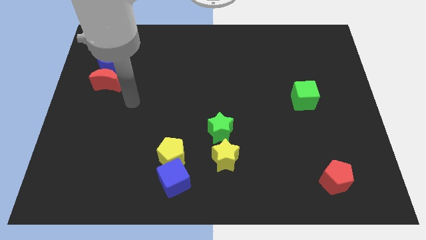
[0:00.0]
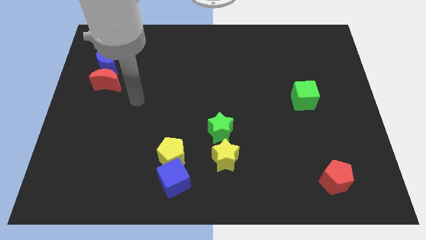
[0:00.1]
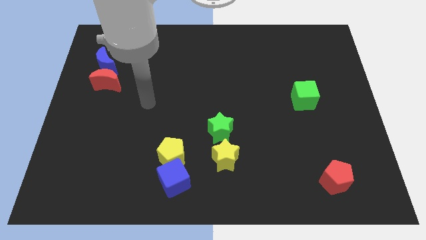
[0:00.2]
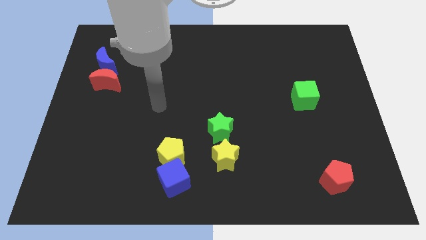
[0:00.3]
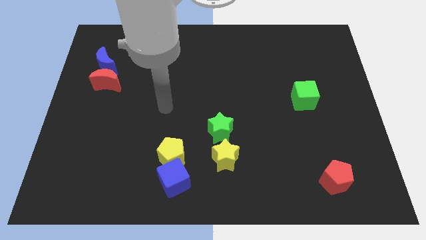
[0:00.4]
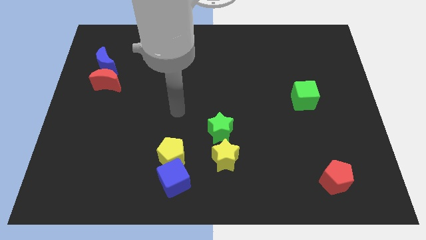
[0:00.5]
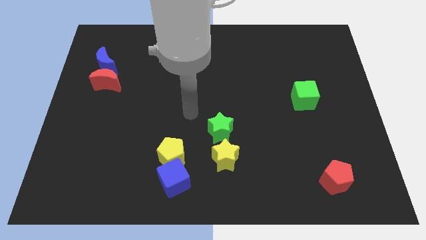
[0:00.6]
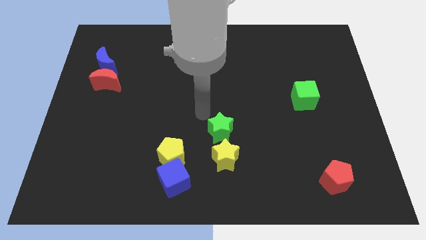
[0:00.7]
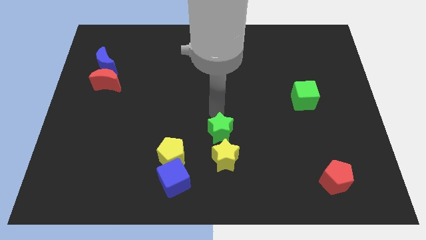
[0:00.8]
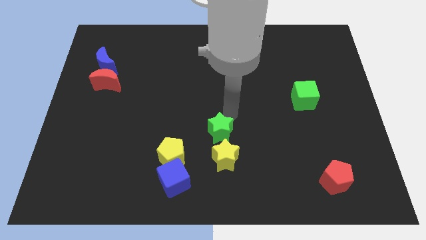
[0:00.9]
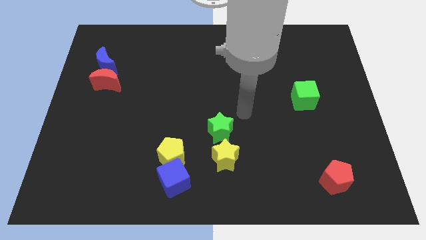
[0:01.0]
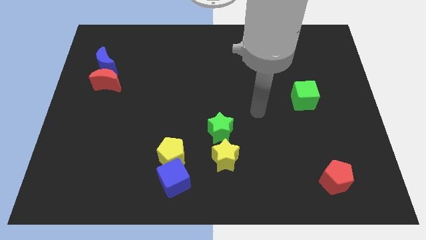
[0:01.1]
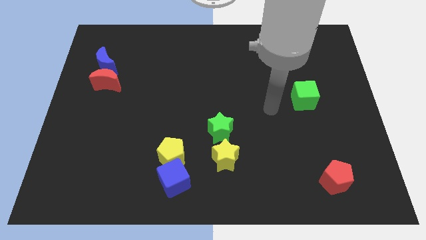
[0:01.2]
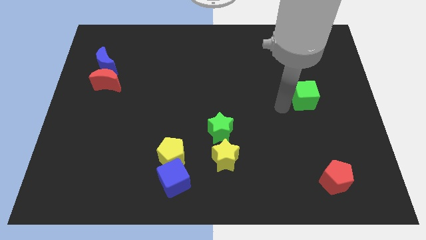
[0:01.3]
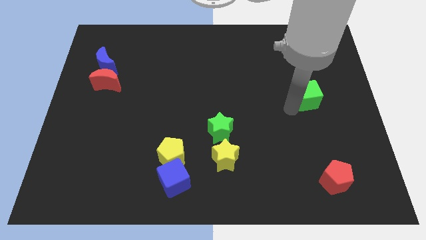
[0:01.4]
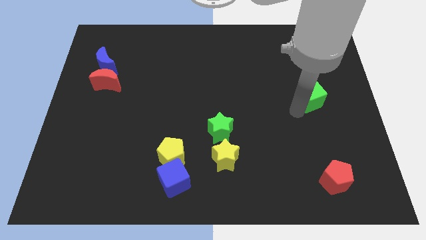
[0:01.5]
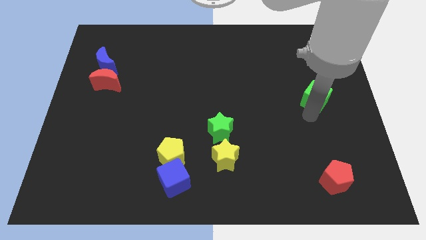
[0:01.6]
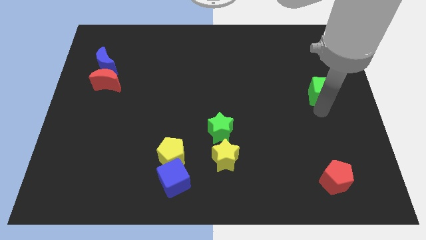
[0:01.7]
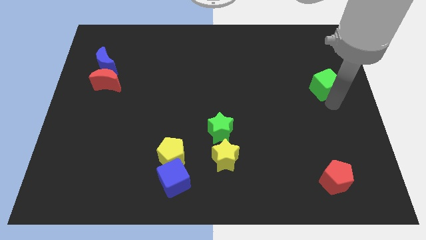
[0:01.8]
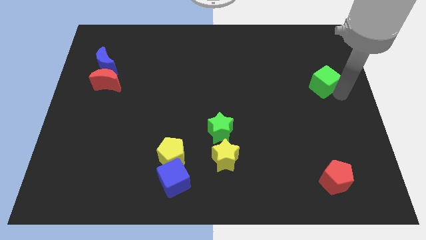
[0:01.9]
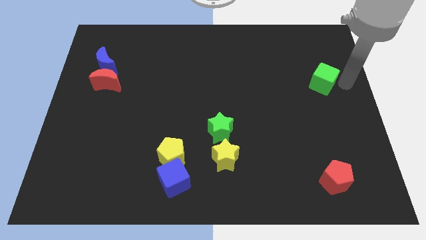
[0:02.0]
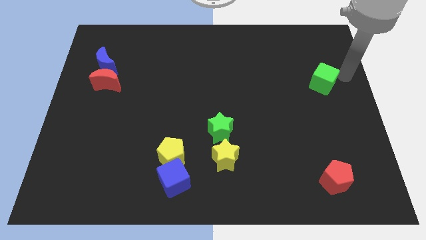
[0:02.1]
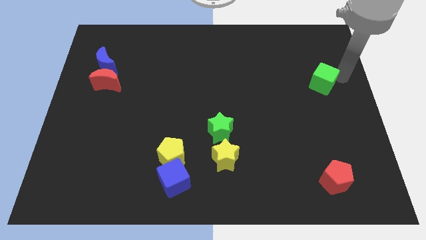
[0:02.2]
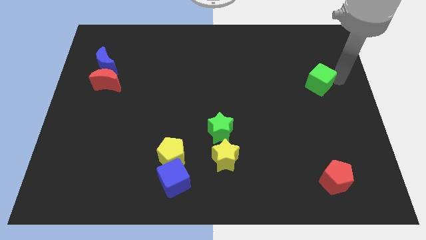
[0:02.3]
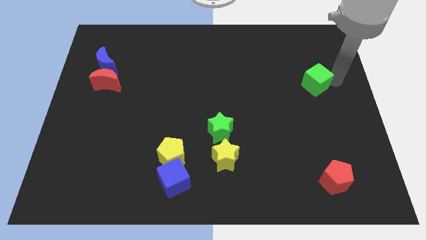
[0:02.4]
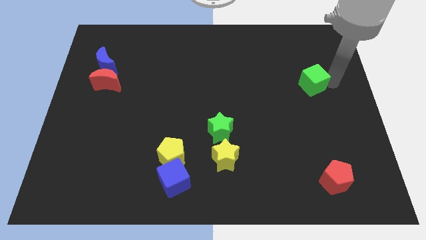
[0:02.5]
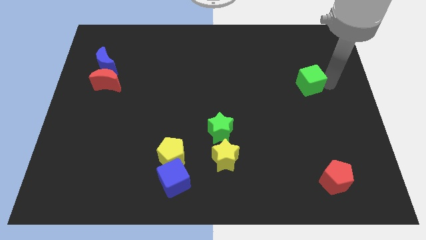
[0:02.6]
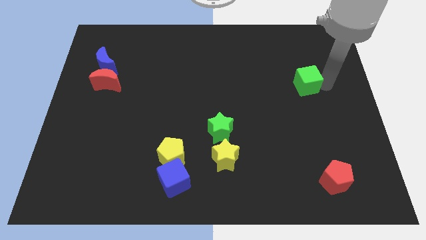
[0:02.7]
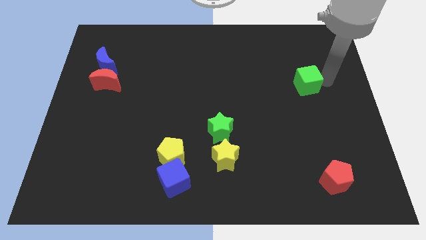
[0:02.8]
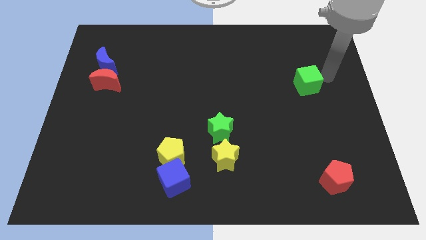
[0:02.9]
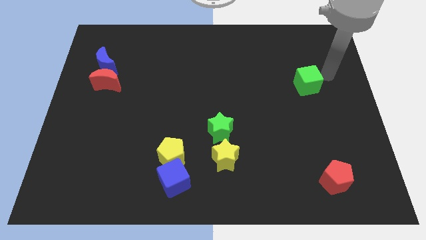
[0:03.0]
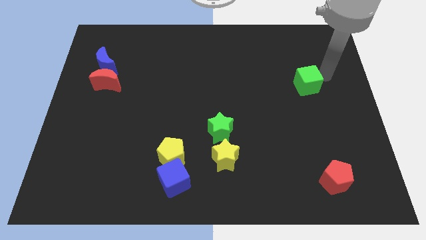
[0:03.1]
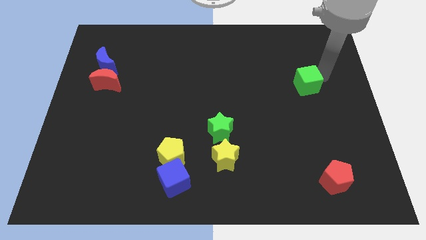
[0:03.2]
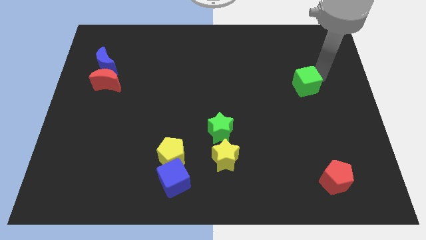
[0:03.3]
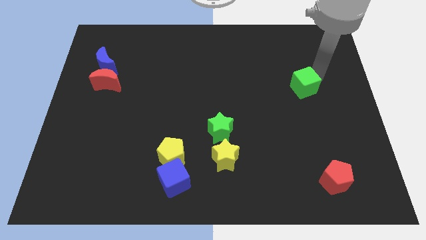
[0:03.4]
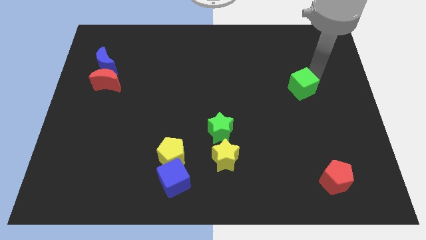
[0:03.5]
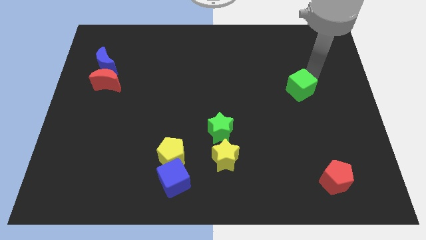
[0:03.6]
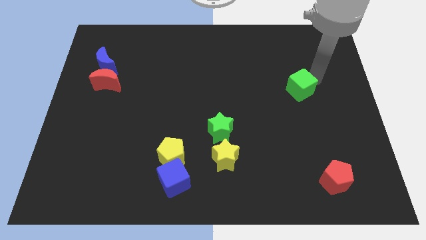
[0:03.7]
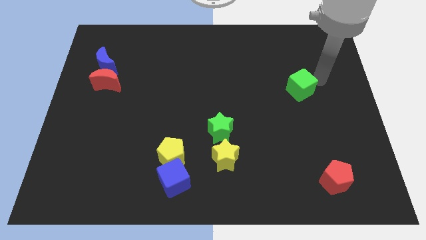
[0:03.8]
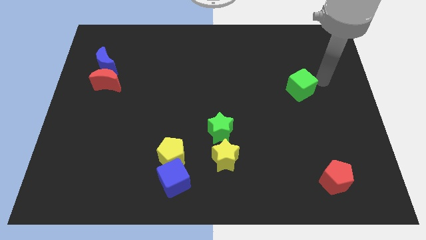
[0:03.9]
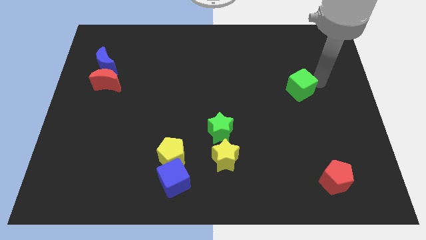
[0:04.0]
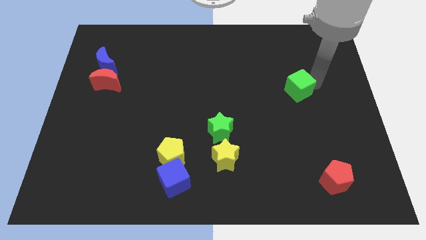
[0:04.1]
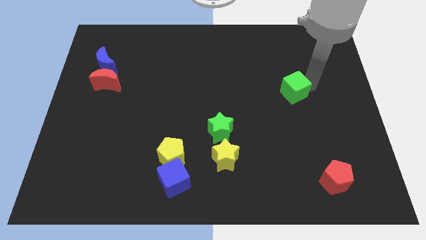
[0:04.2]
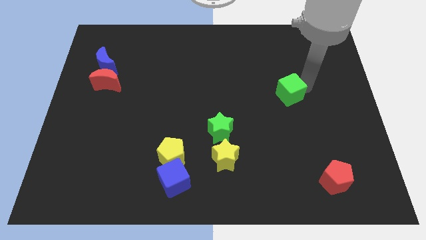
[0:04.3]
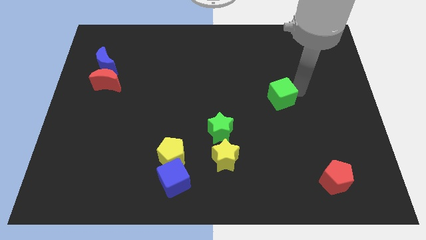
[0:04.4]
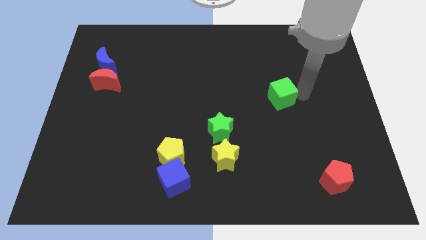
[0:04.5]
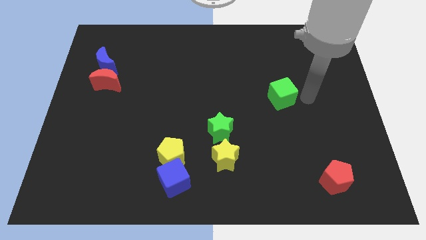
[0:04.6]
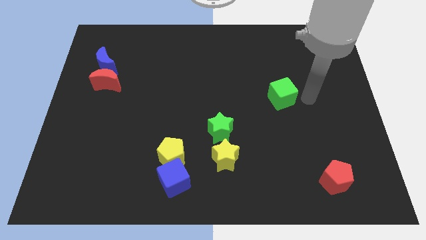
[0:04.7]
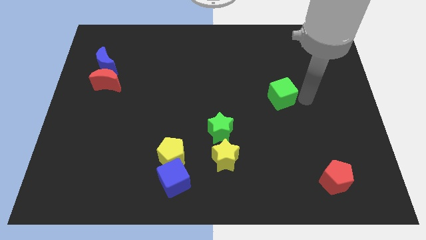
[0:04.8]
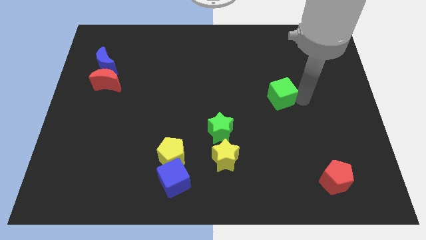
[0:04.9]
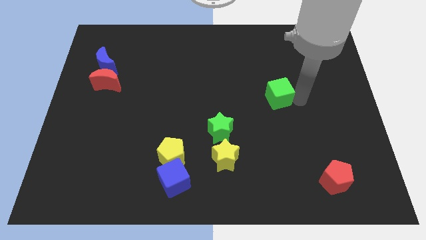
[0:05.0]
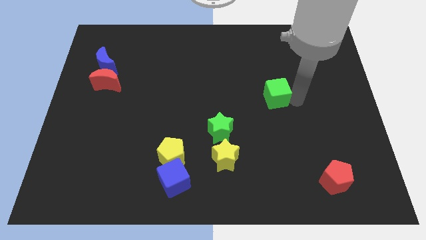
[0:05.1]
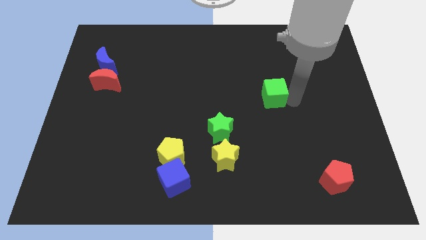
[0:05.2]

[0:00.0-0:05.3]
slightly move the green cube left

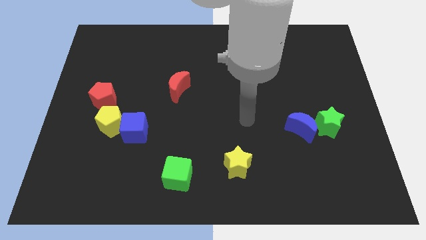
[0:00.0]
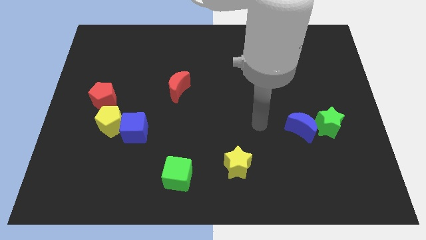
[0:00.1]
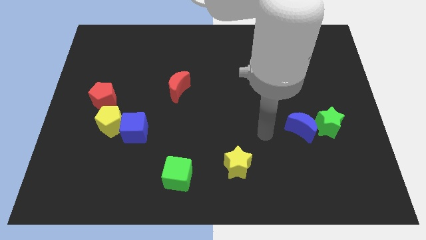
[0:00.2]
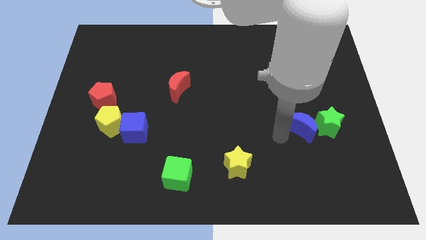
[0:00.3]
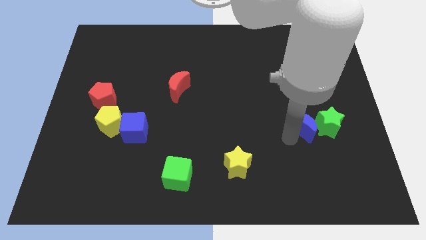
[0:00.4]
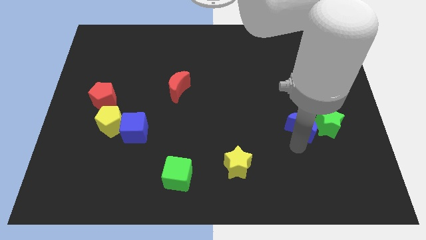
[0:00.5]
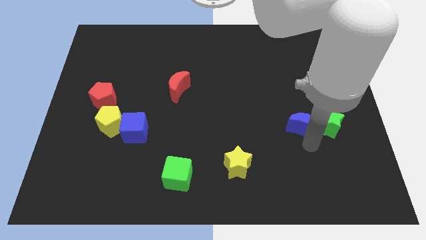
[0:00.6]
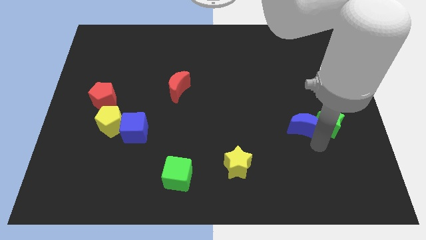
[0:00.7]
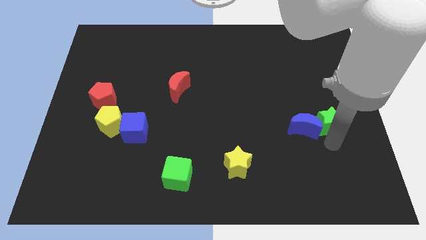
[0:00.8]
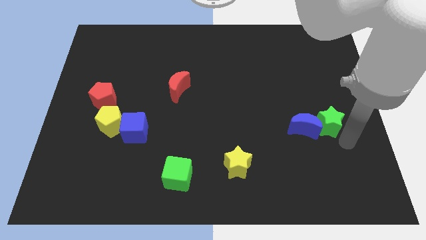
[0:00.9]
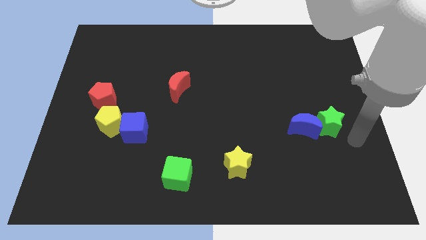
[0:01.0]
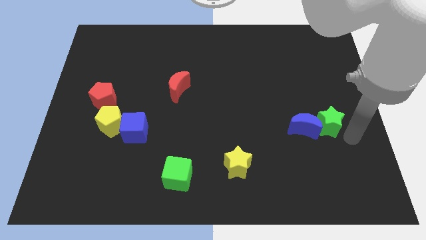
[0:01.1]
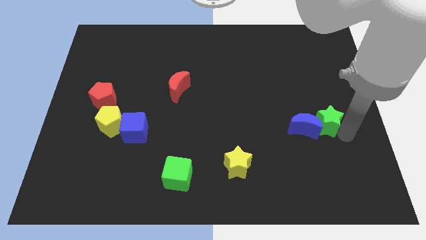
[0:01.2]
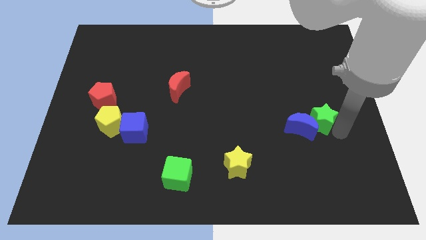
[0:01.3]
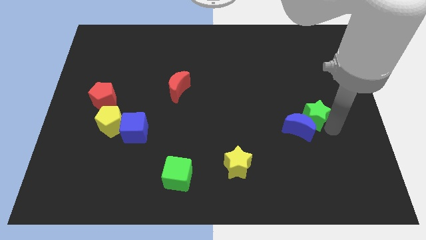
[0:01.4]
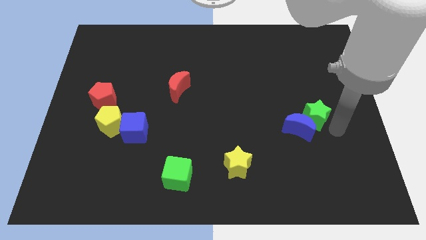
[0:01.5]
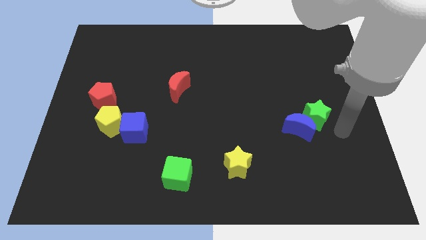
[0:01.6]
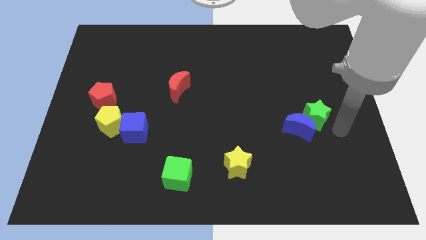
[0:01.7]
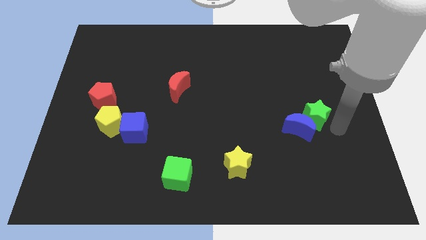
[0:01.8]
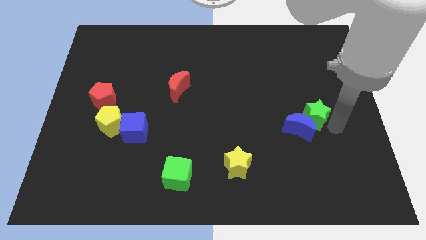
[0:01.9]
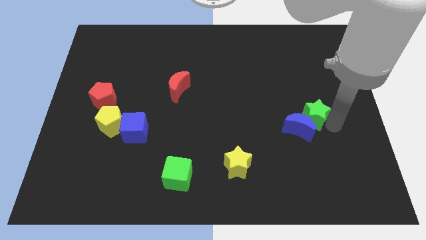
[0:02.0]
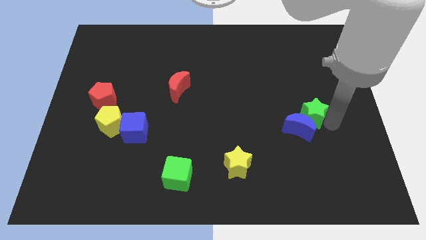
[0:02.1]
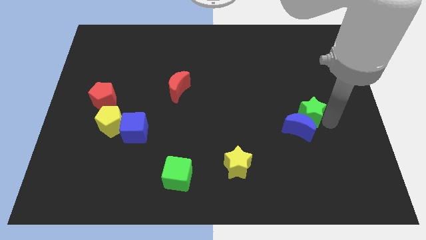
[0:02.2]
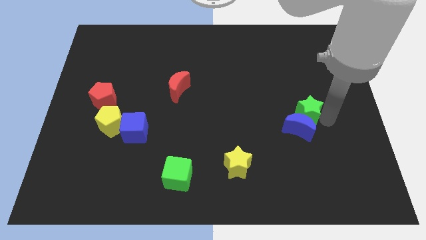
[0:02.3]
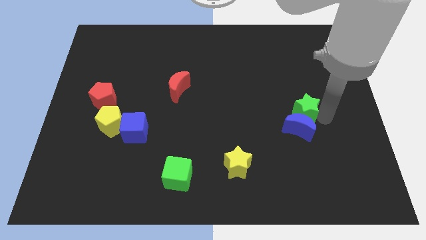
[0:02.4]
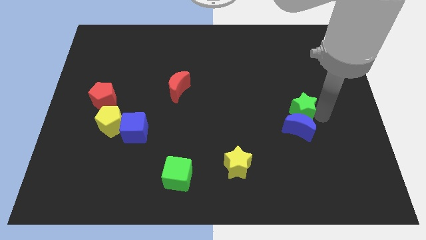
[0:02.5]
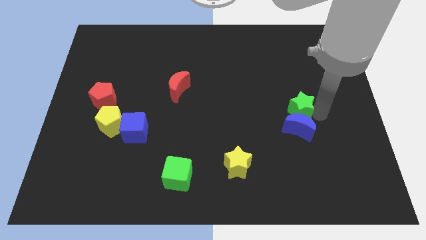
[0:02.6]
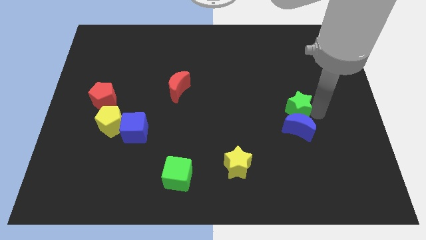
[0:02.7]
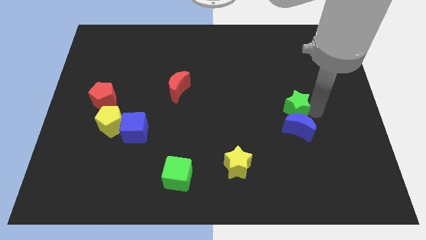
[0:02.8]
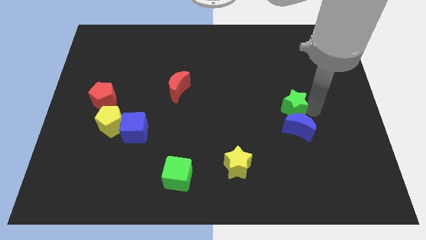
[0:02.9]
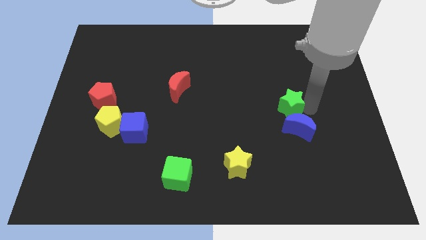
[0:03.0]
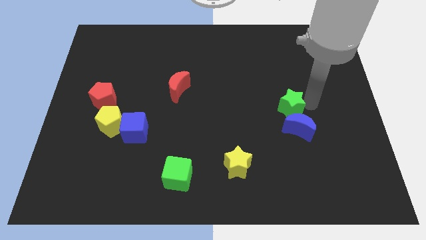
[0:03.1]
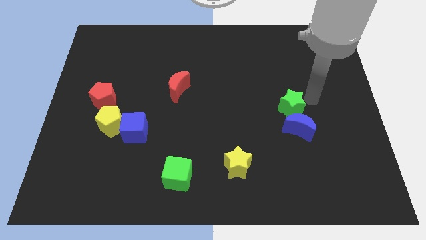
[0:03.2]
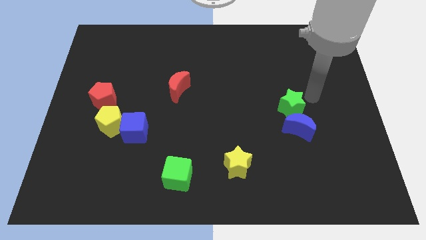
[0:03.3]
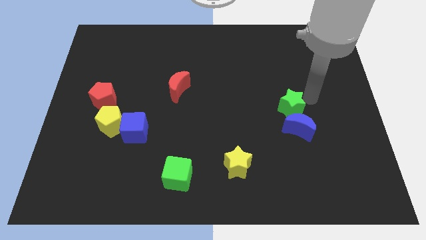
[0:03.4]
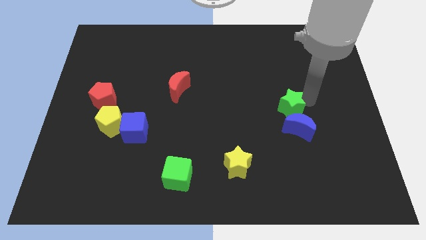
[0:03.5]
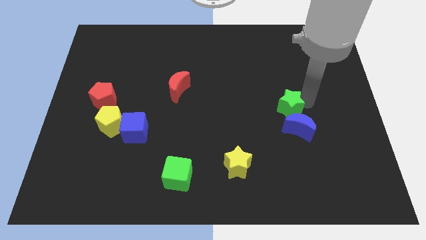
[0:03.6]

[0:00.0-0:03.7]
move the green star a little bit left
